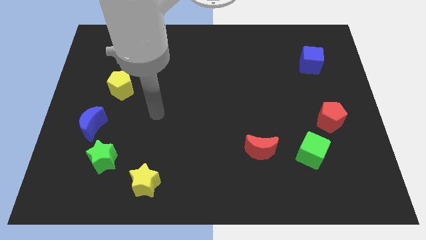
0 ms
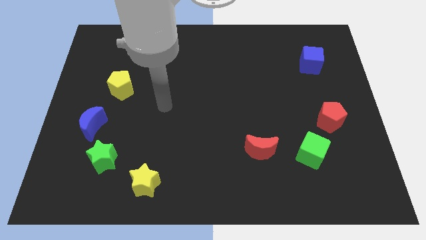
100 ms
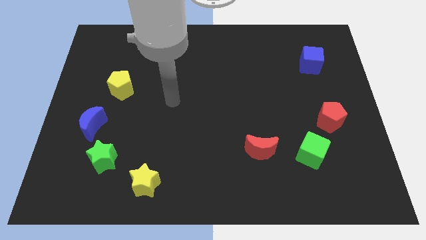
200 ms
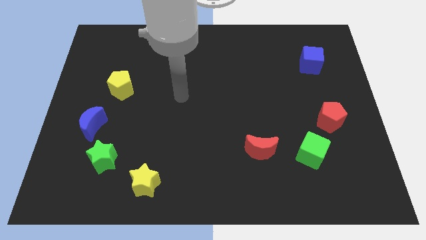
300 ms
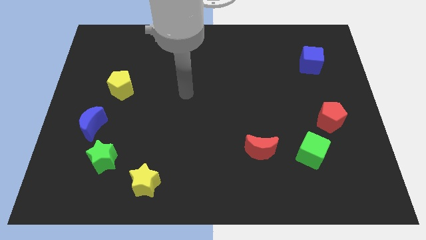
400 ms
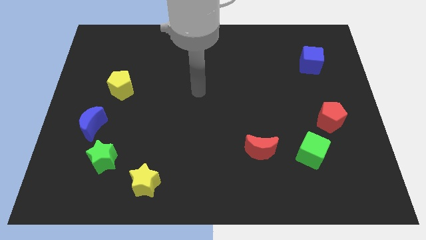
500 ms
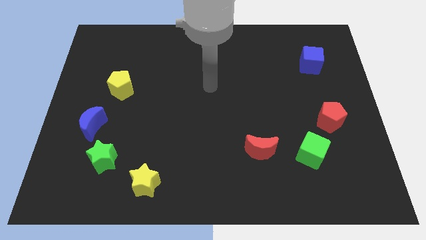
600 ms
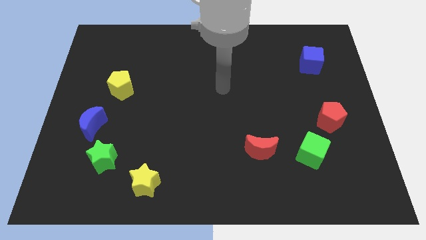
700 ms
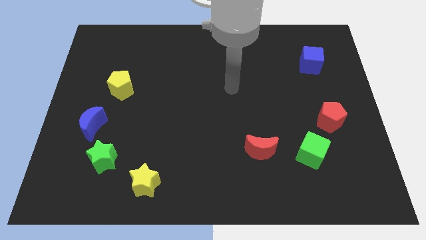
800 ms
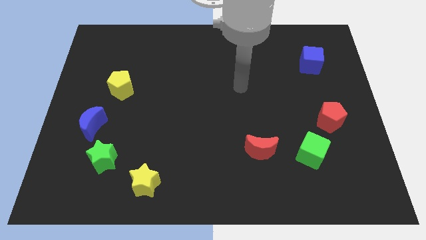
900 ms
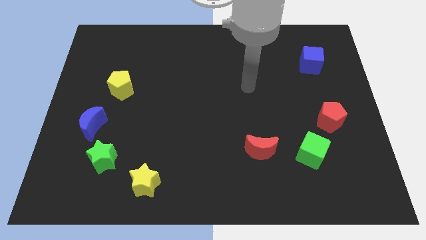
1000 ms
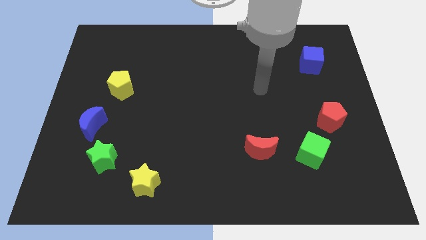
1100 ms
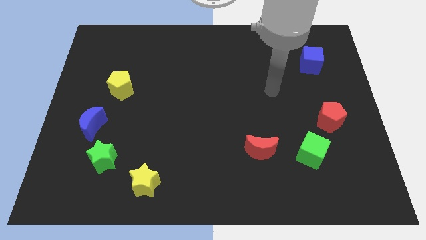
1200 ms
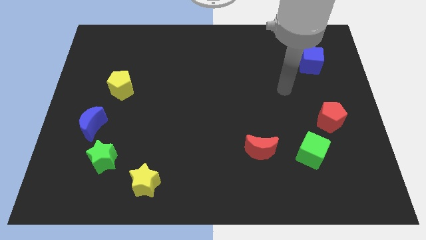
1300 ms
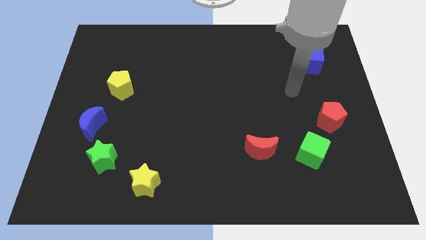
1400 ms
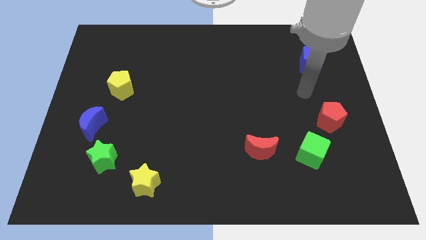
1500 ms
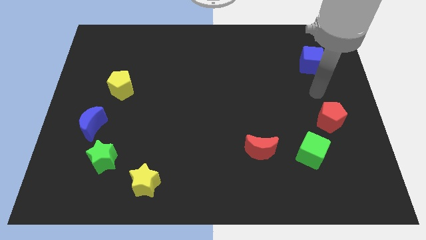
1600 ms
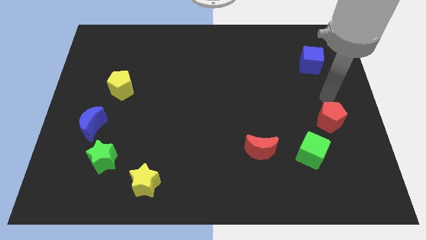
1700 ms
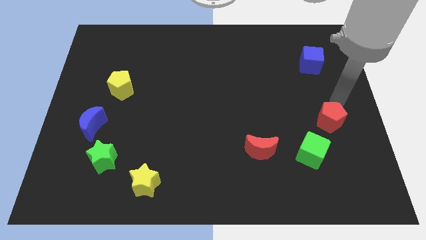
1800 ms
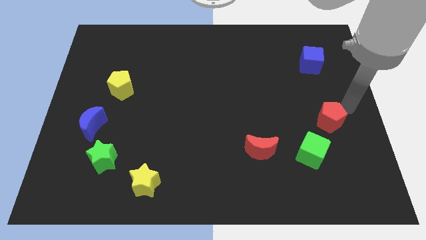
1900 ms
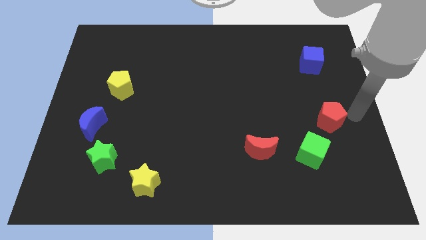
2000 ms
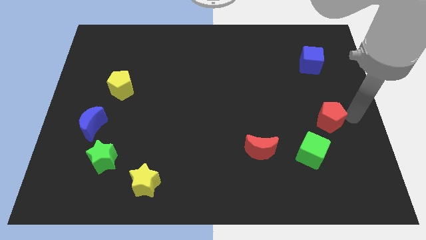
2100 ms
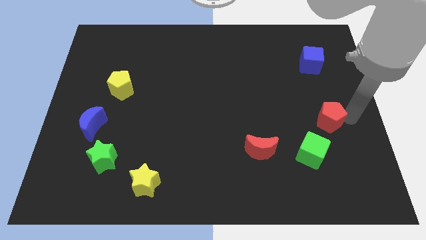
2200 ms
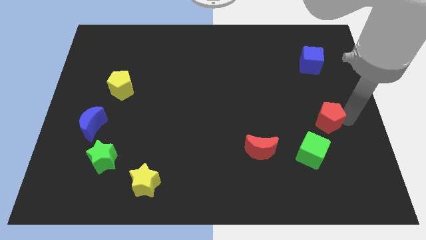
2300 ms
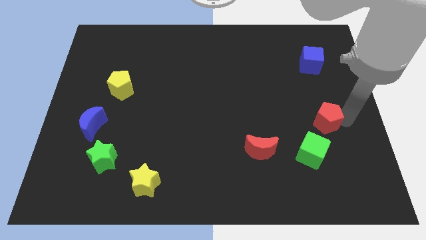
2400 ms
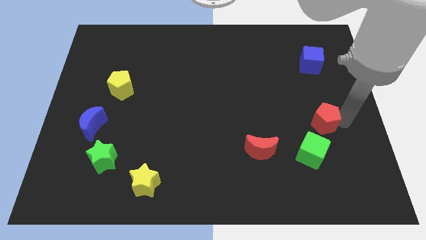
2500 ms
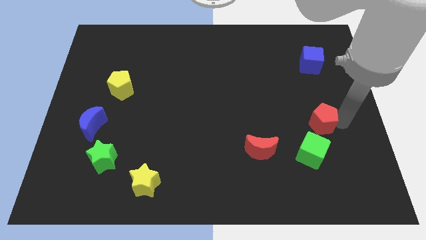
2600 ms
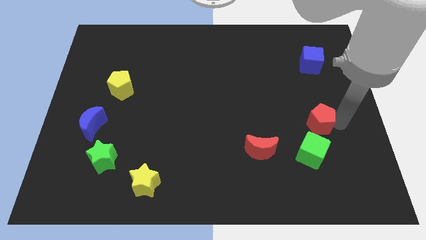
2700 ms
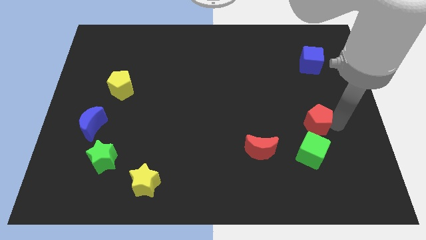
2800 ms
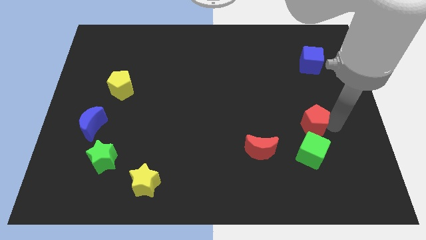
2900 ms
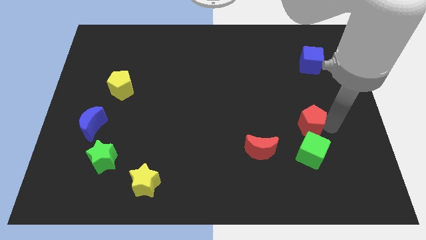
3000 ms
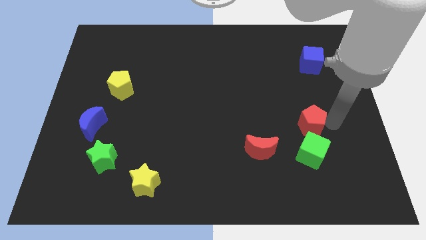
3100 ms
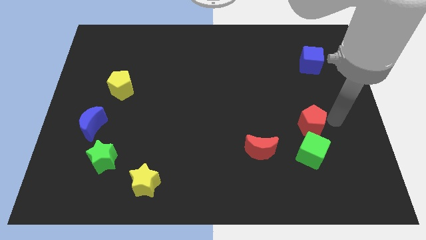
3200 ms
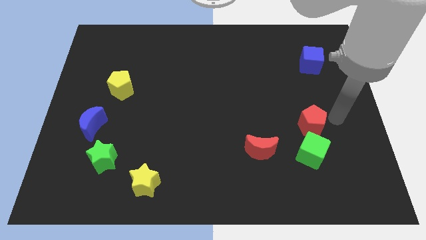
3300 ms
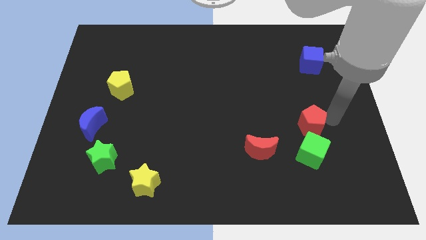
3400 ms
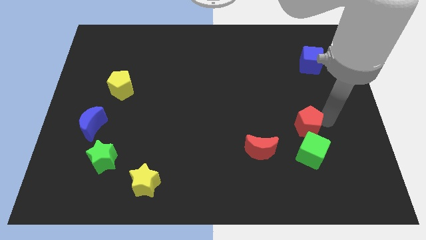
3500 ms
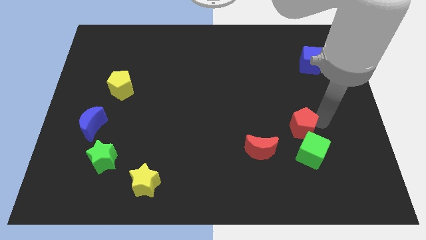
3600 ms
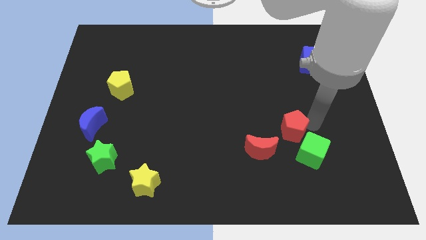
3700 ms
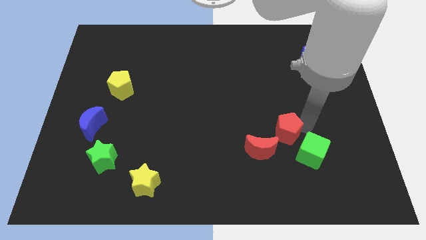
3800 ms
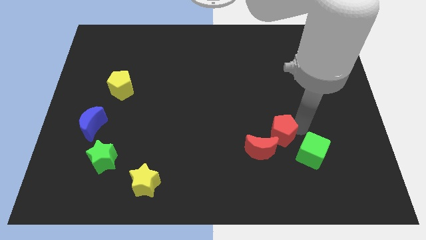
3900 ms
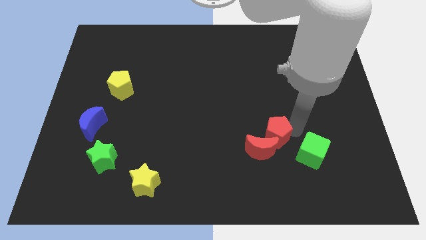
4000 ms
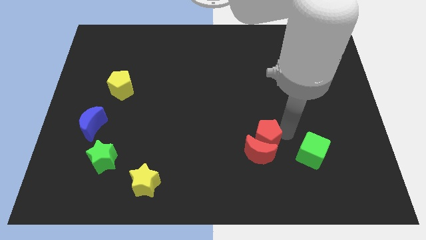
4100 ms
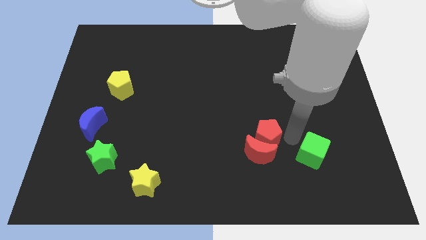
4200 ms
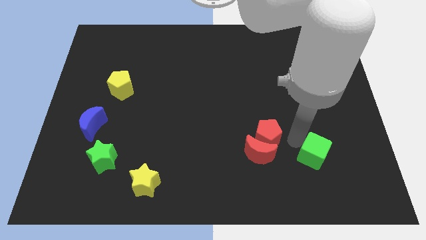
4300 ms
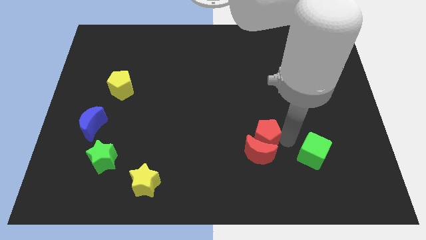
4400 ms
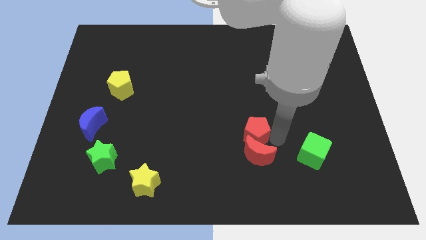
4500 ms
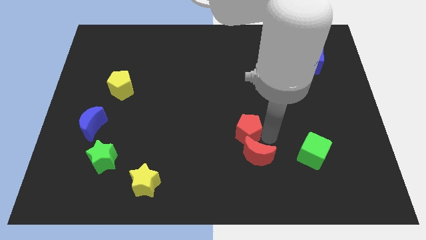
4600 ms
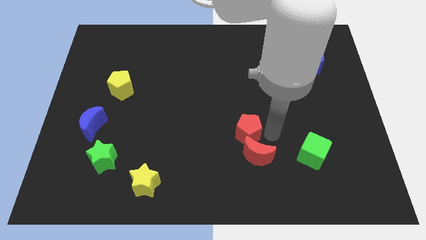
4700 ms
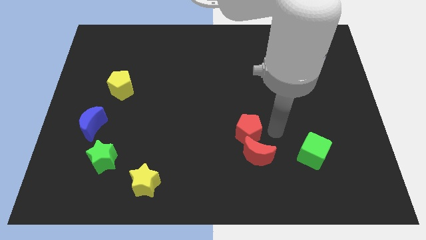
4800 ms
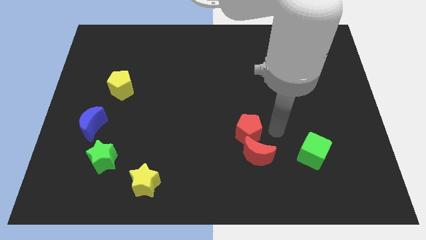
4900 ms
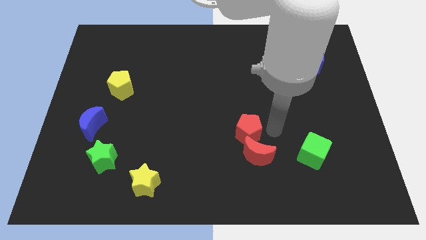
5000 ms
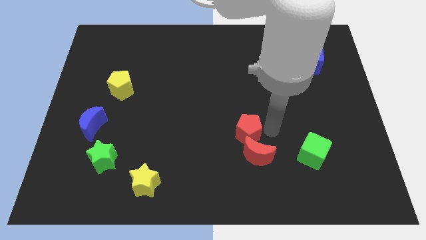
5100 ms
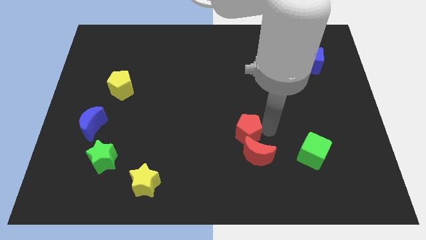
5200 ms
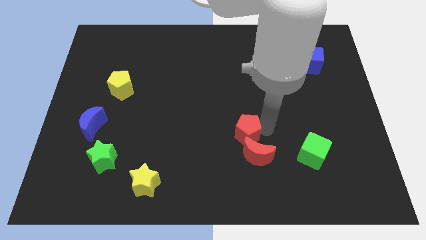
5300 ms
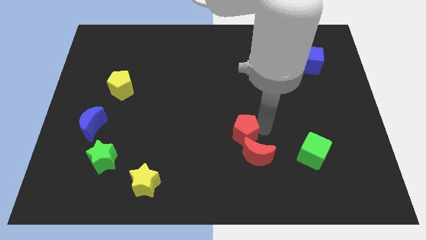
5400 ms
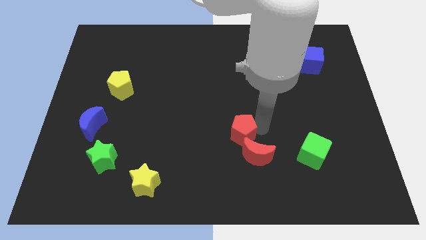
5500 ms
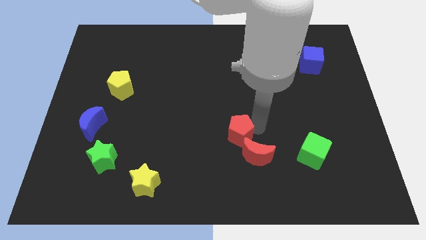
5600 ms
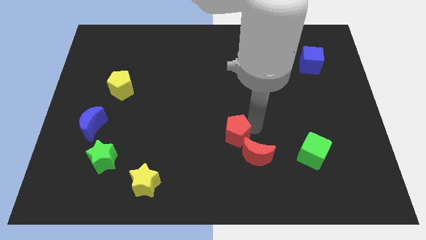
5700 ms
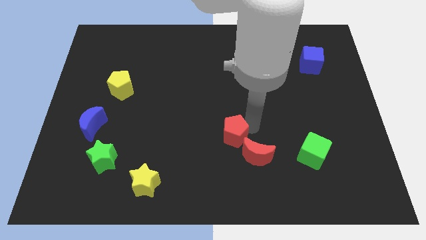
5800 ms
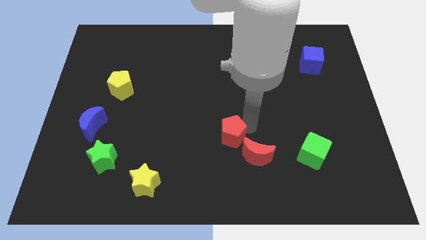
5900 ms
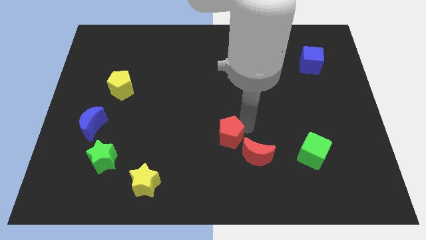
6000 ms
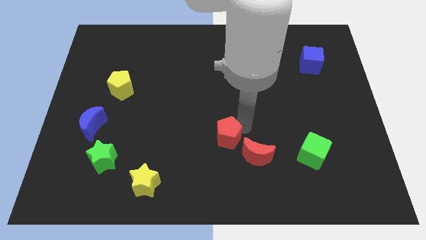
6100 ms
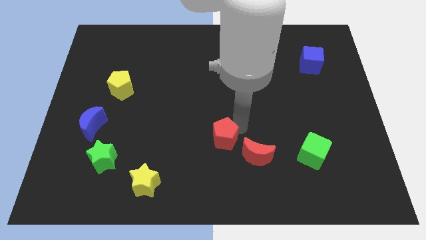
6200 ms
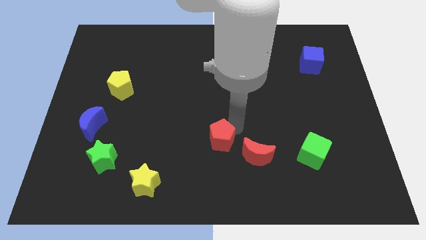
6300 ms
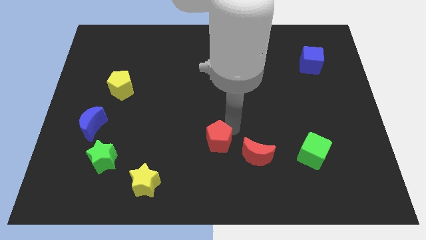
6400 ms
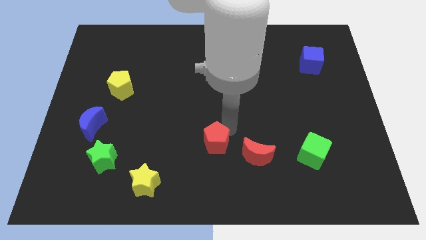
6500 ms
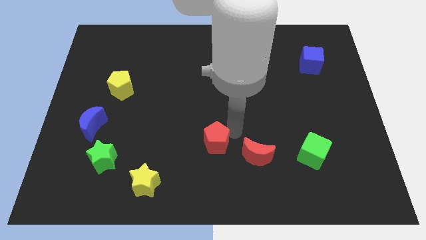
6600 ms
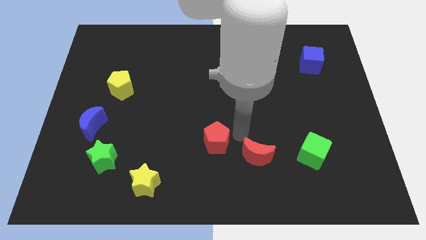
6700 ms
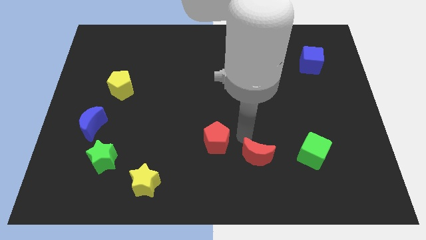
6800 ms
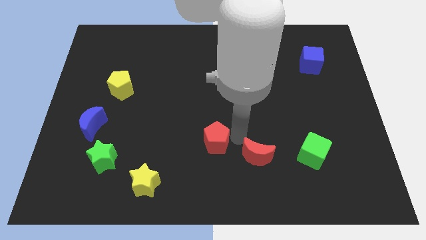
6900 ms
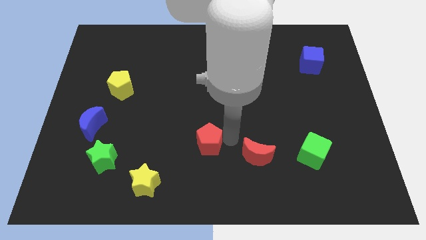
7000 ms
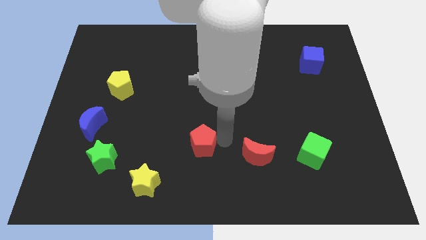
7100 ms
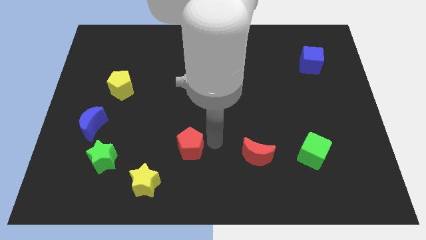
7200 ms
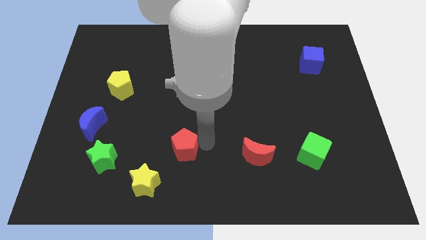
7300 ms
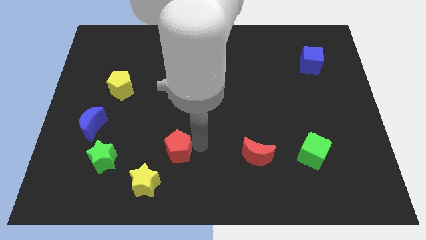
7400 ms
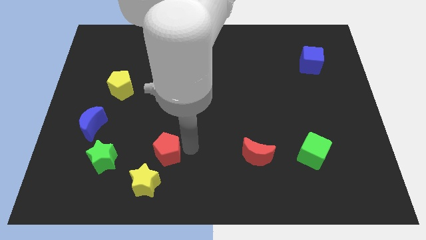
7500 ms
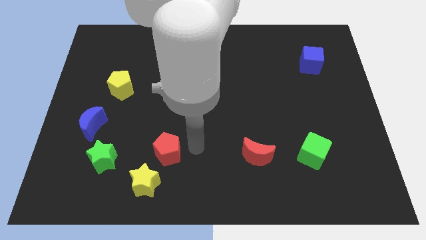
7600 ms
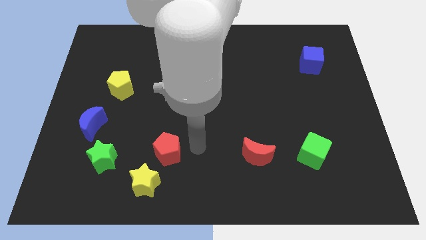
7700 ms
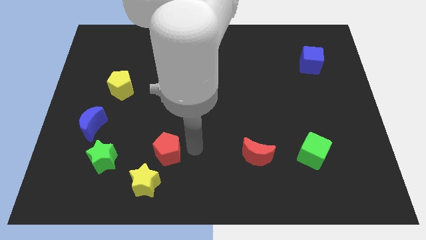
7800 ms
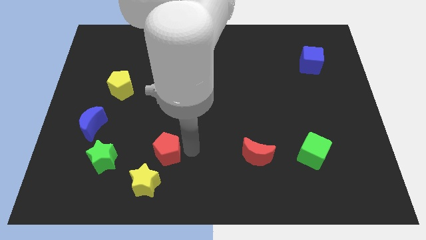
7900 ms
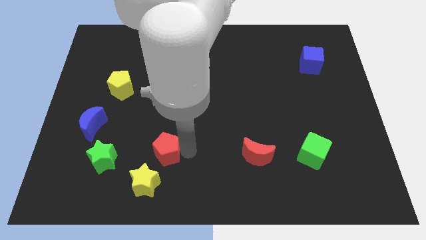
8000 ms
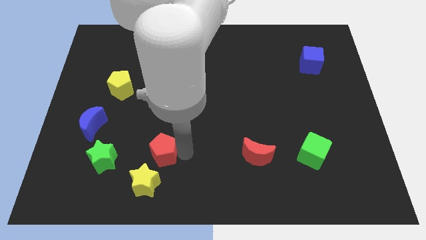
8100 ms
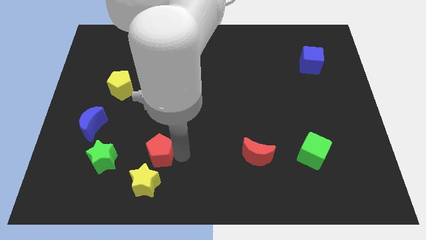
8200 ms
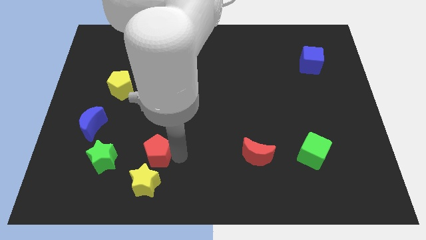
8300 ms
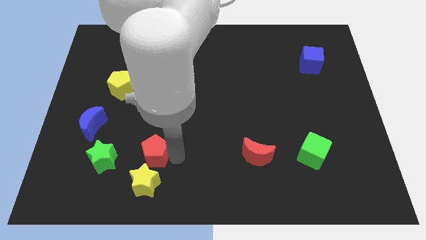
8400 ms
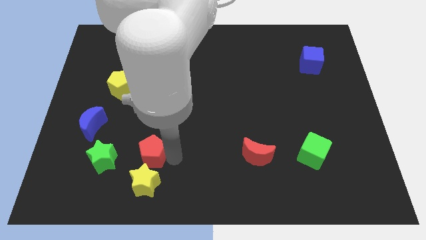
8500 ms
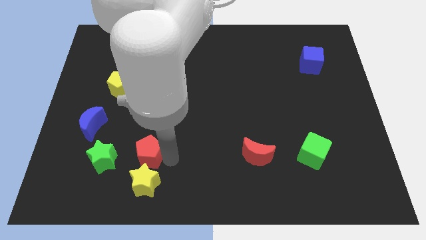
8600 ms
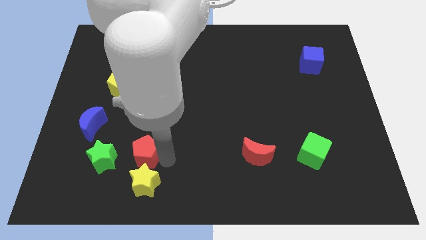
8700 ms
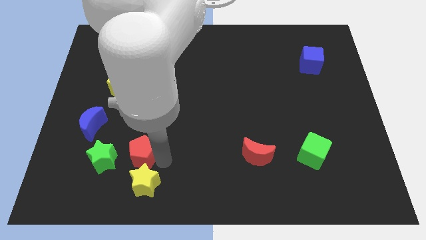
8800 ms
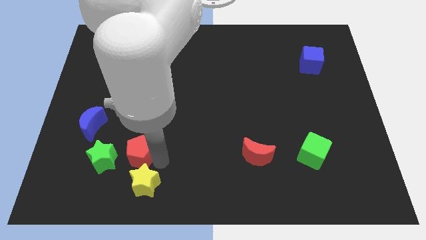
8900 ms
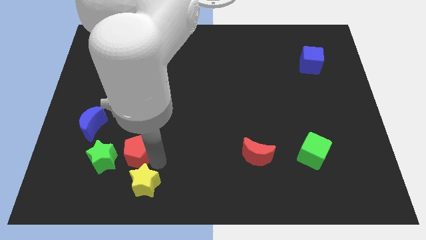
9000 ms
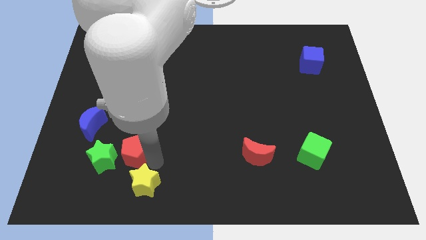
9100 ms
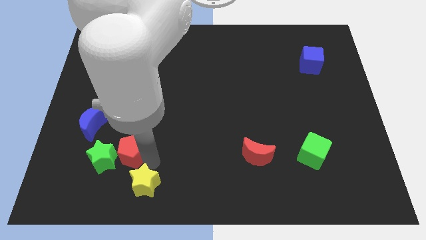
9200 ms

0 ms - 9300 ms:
put the red pentagon to the bottom right of the blue moon
